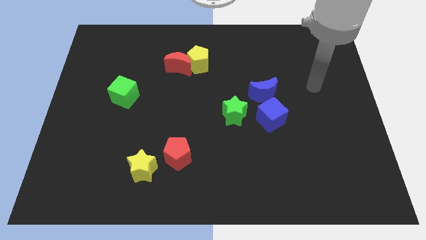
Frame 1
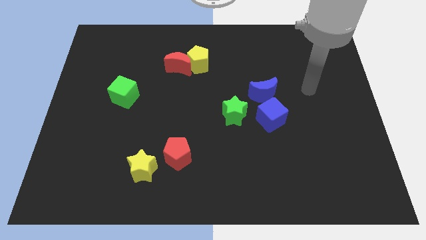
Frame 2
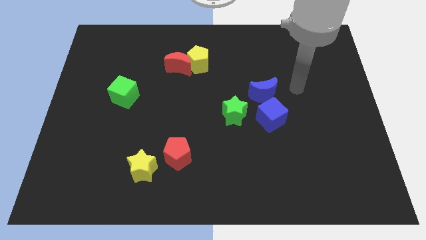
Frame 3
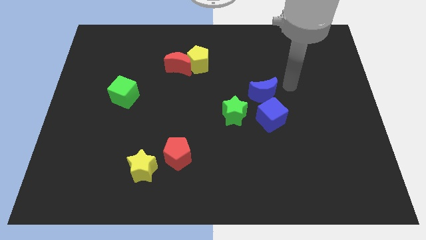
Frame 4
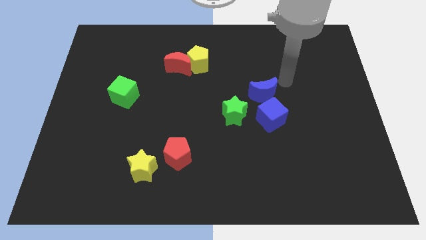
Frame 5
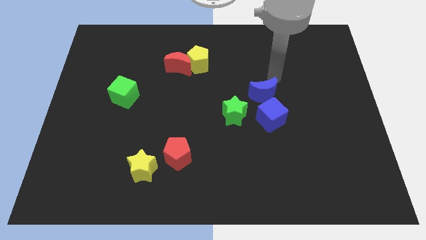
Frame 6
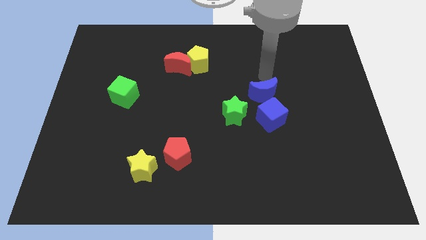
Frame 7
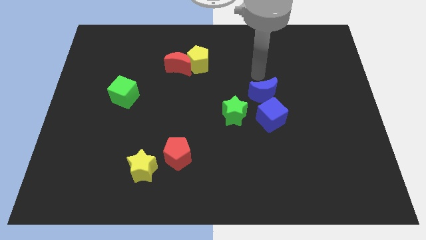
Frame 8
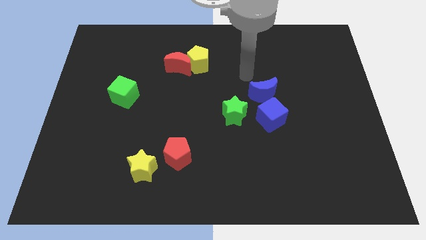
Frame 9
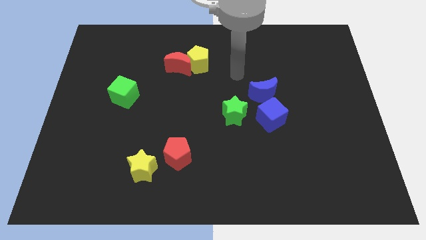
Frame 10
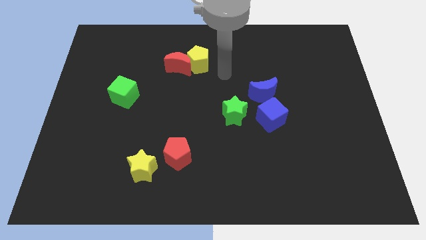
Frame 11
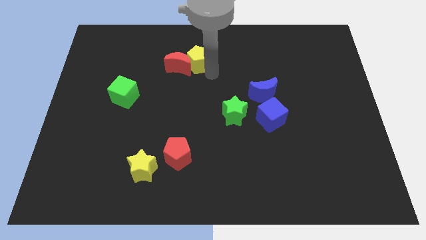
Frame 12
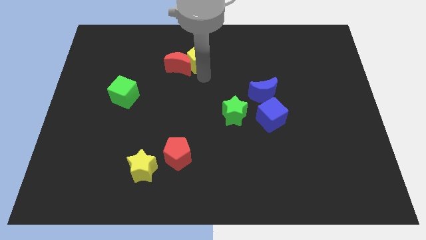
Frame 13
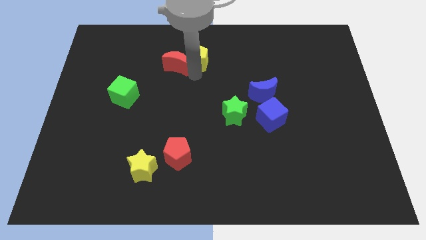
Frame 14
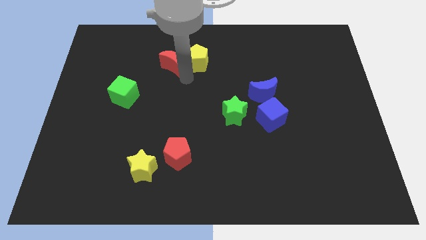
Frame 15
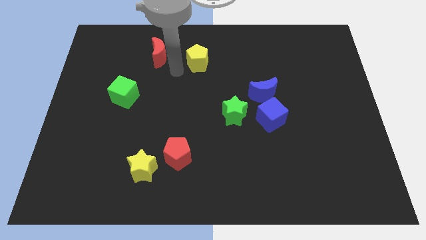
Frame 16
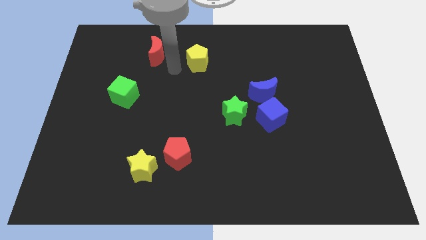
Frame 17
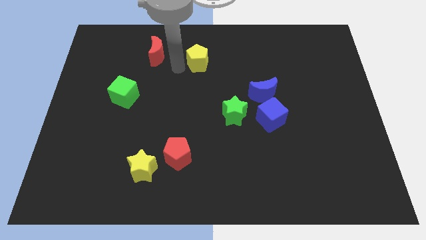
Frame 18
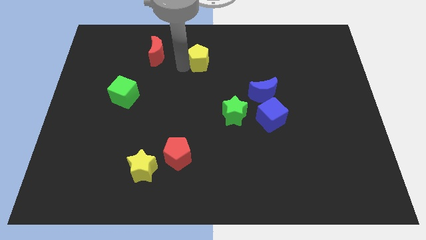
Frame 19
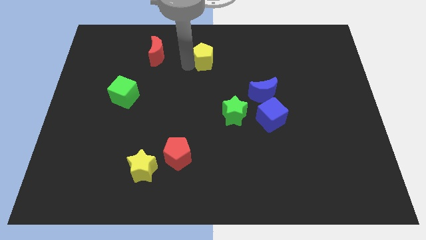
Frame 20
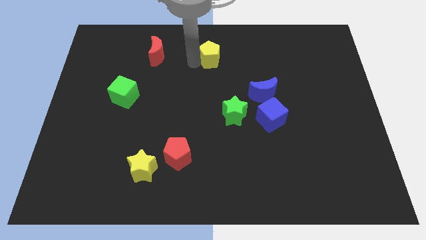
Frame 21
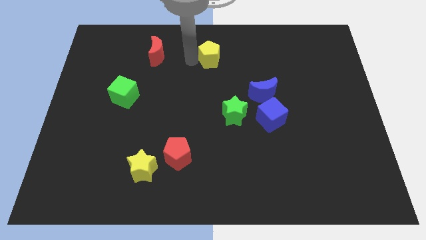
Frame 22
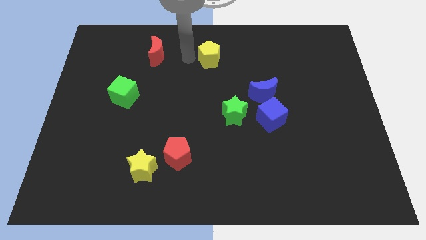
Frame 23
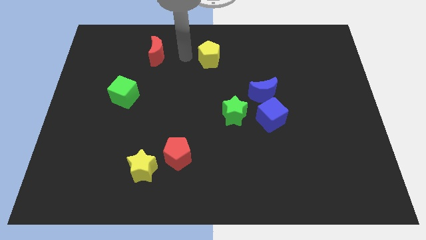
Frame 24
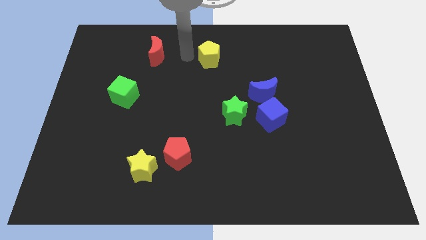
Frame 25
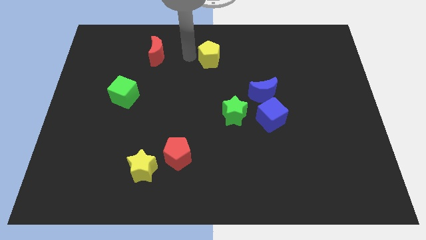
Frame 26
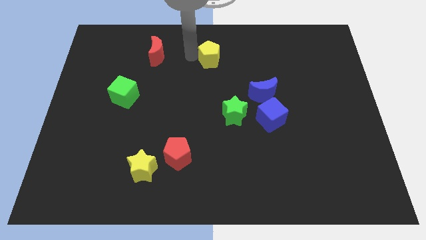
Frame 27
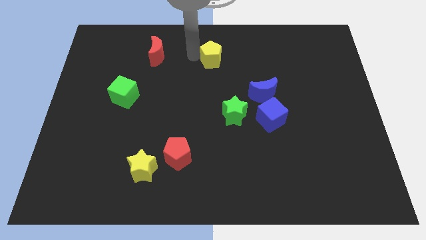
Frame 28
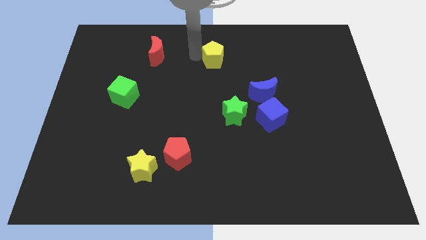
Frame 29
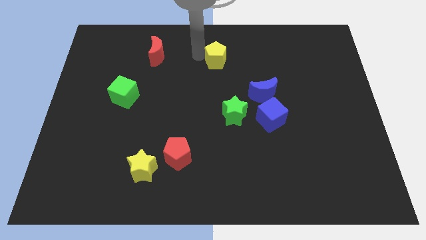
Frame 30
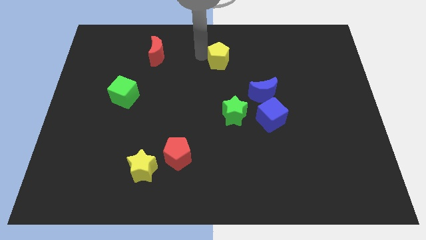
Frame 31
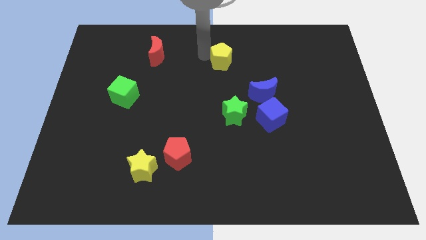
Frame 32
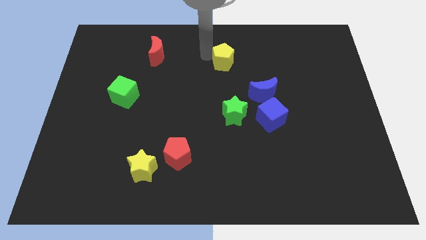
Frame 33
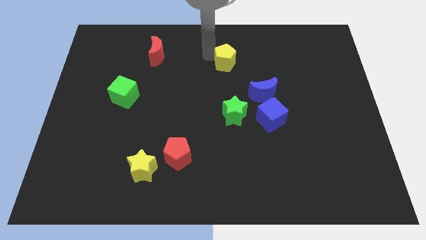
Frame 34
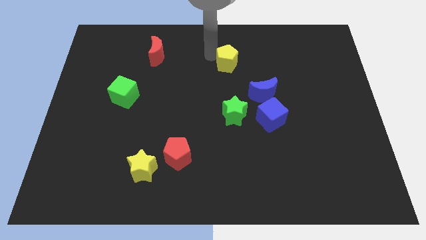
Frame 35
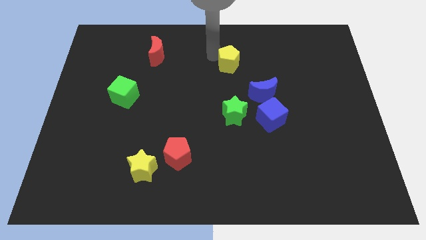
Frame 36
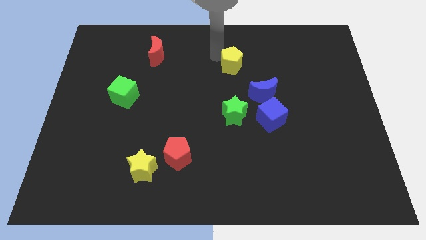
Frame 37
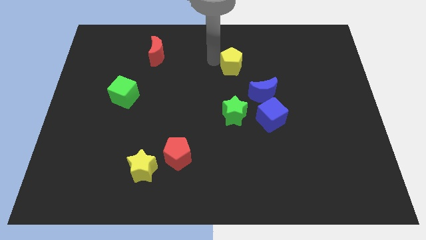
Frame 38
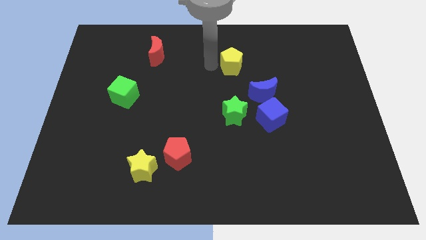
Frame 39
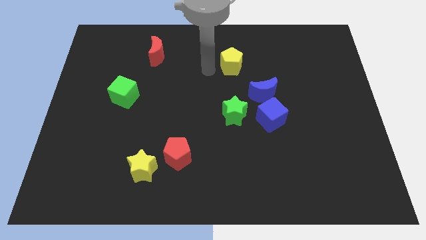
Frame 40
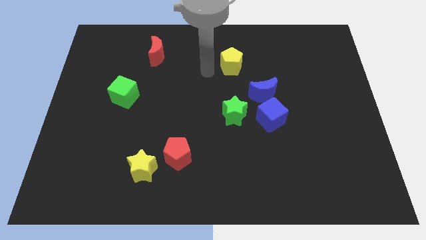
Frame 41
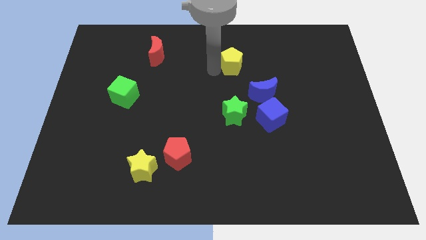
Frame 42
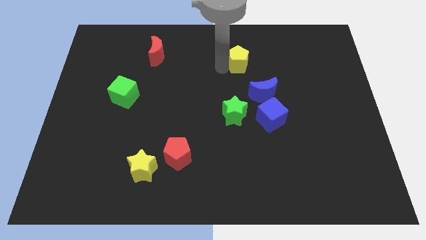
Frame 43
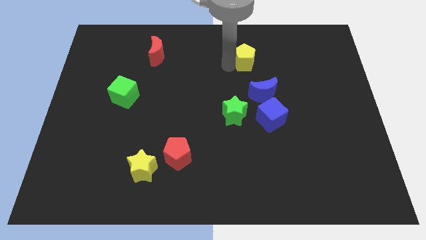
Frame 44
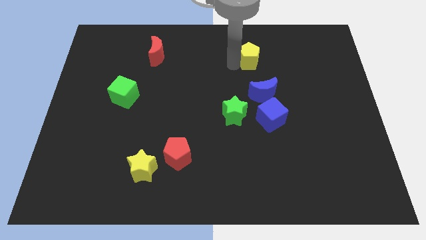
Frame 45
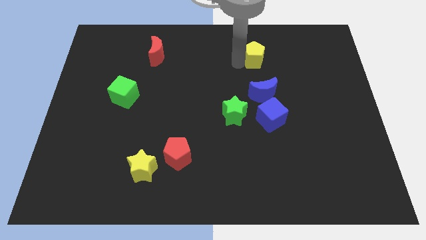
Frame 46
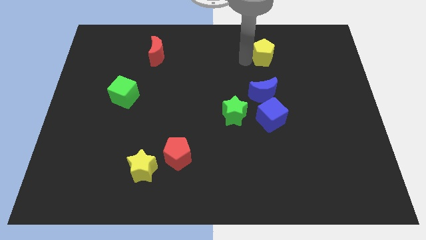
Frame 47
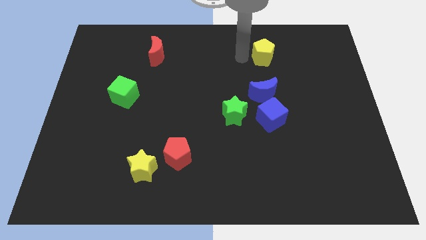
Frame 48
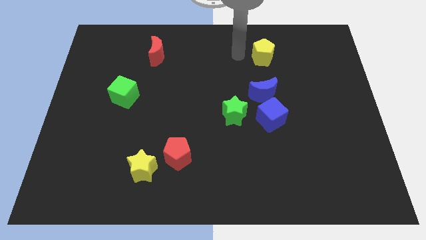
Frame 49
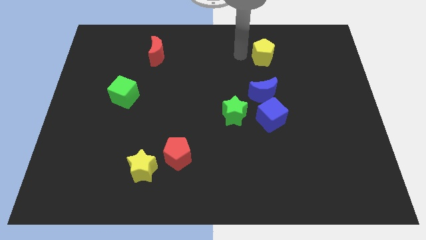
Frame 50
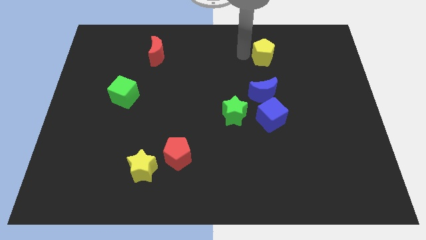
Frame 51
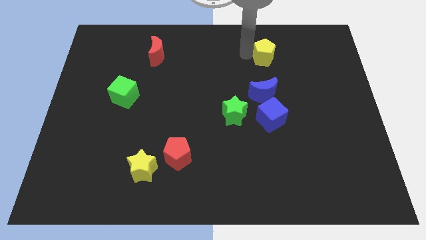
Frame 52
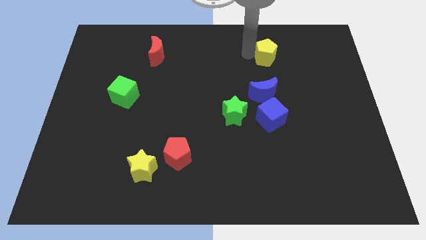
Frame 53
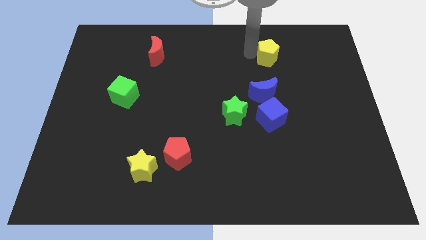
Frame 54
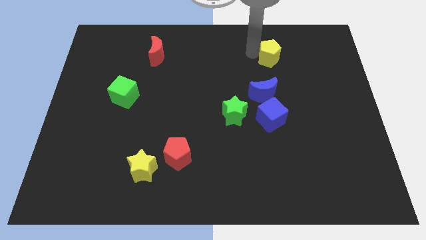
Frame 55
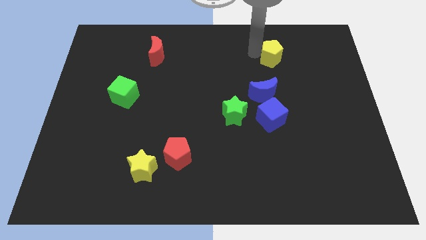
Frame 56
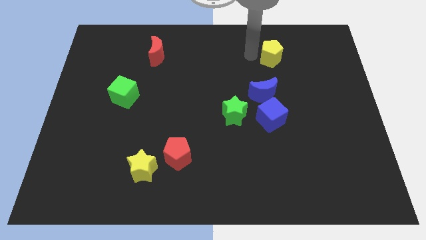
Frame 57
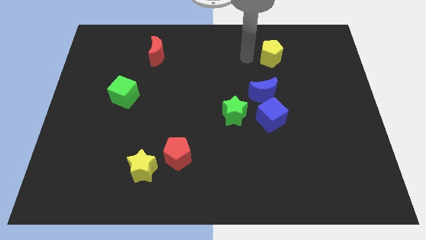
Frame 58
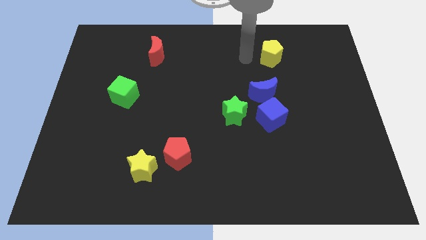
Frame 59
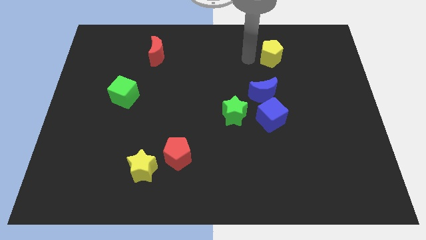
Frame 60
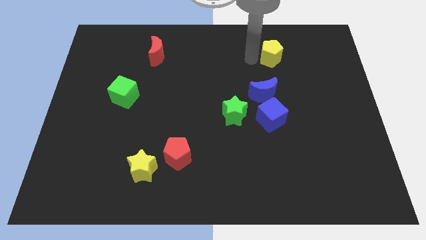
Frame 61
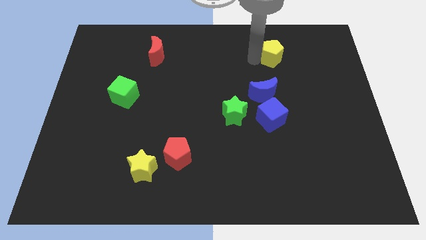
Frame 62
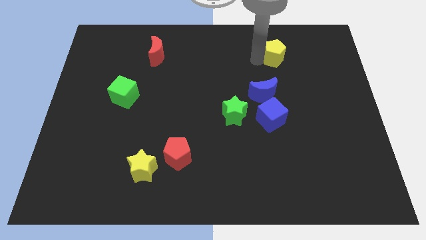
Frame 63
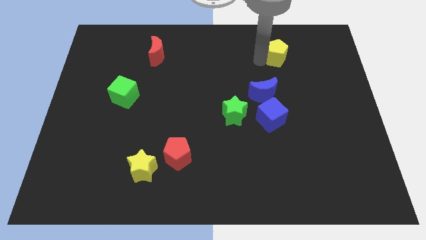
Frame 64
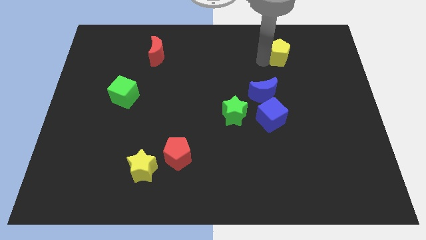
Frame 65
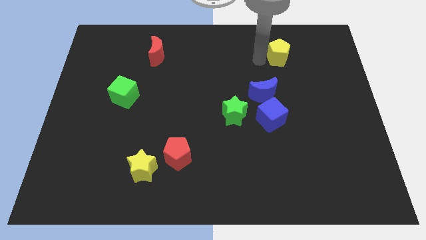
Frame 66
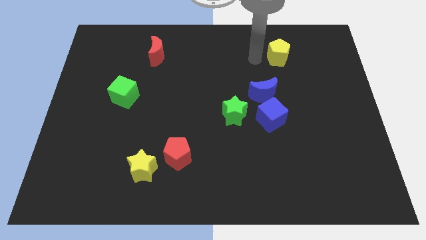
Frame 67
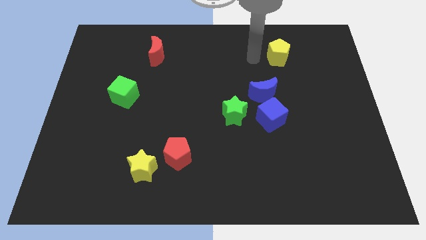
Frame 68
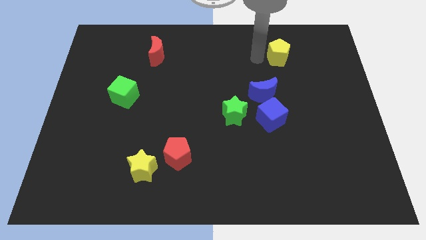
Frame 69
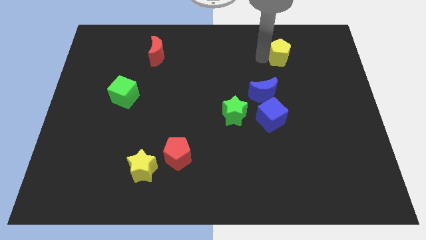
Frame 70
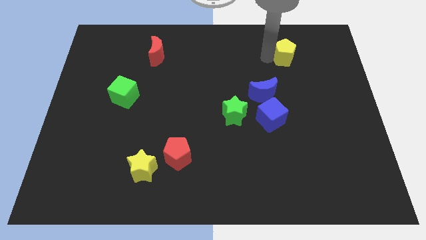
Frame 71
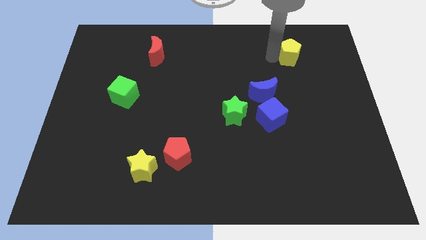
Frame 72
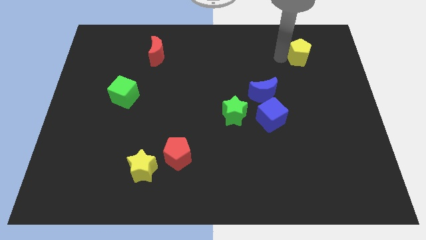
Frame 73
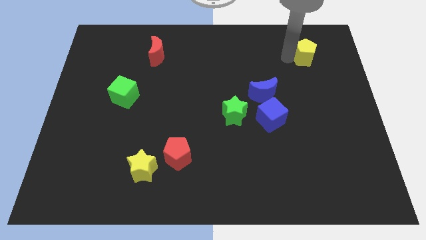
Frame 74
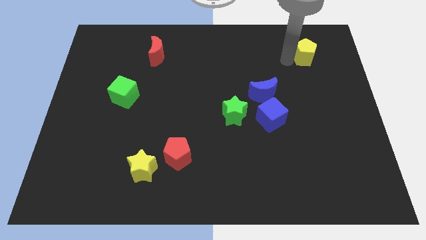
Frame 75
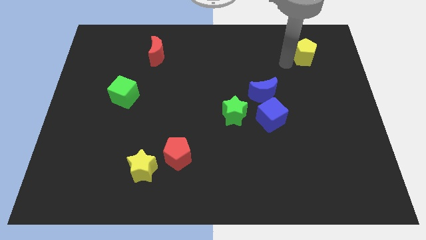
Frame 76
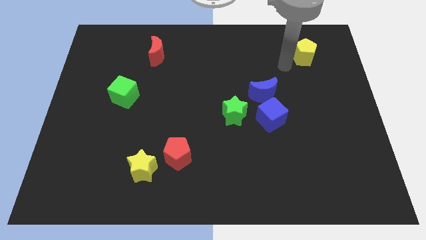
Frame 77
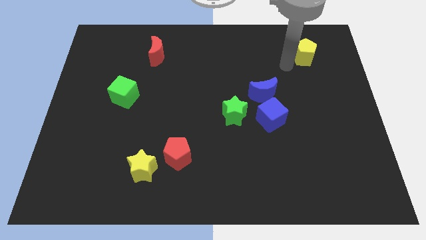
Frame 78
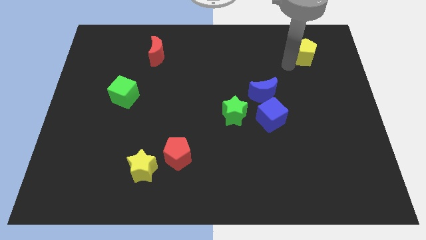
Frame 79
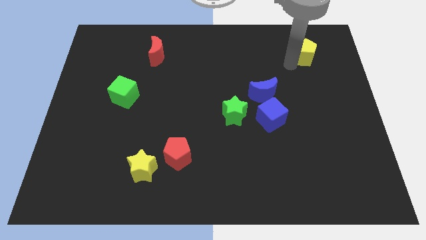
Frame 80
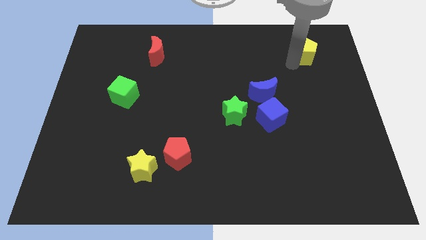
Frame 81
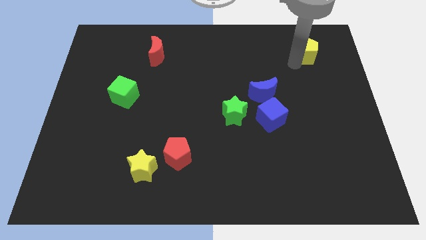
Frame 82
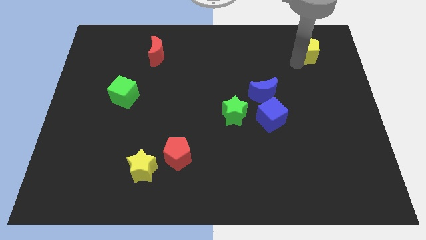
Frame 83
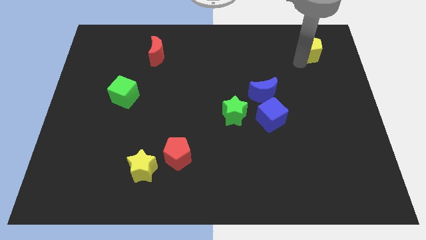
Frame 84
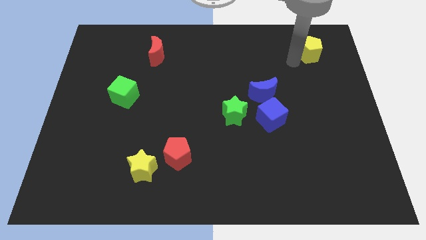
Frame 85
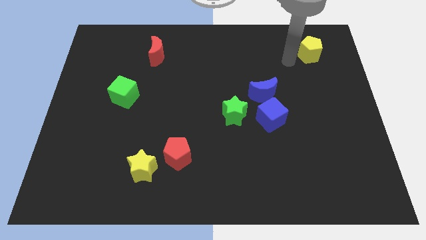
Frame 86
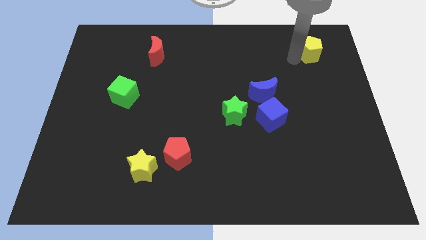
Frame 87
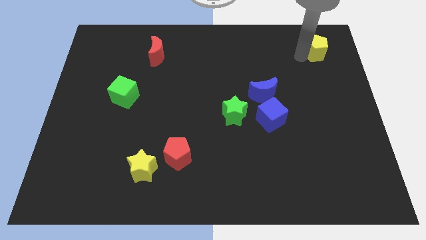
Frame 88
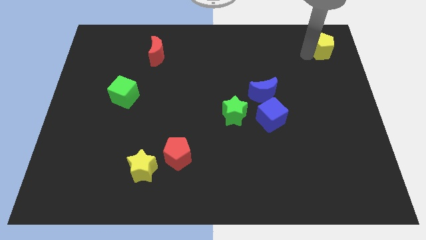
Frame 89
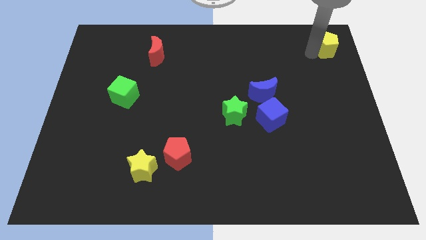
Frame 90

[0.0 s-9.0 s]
slide the yellow pentagon to the top right of the board
